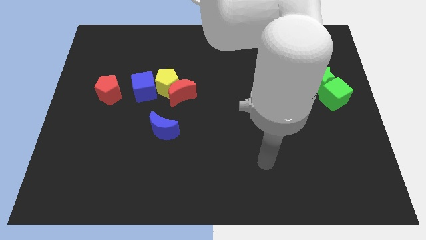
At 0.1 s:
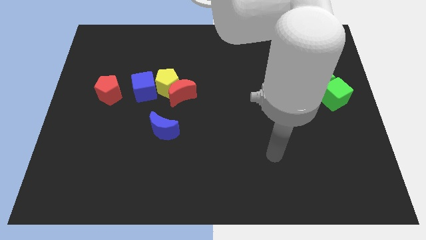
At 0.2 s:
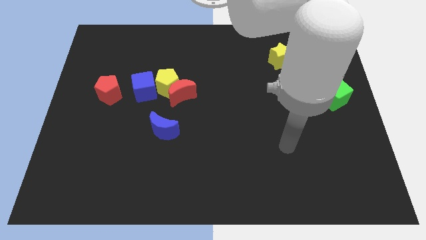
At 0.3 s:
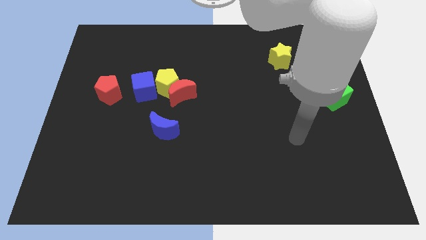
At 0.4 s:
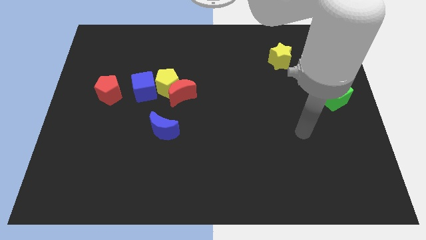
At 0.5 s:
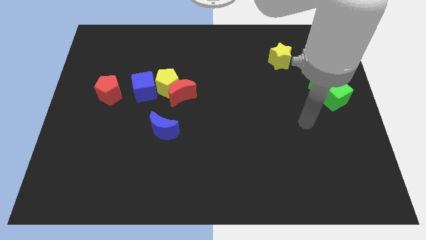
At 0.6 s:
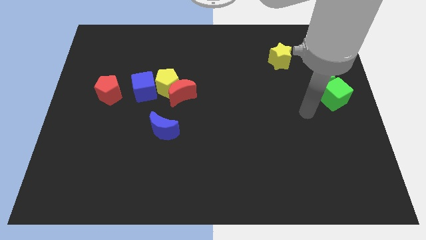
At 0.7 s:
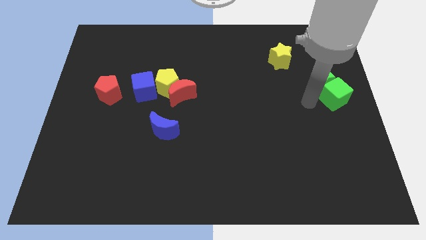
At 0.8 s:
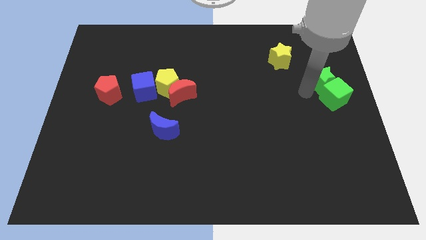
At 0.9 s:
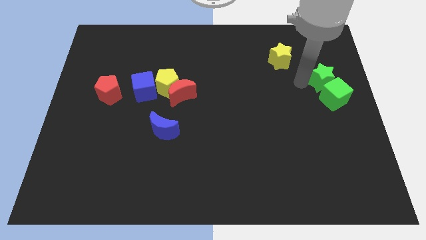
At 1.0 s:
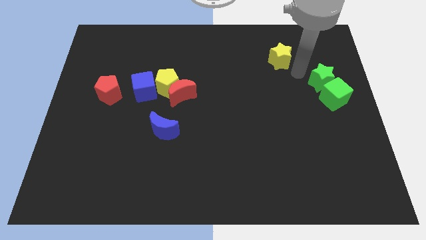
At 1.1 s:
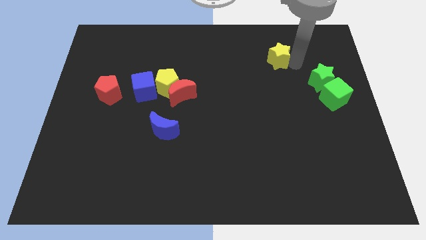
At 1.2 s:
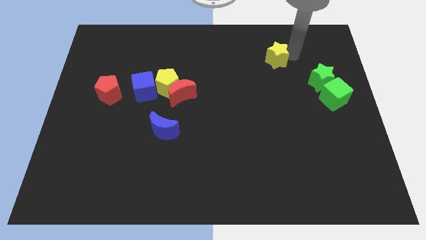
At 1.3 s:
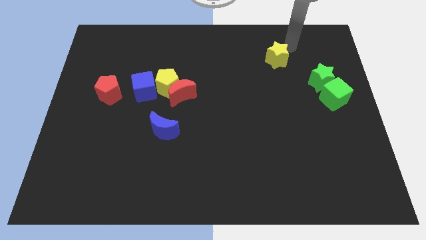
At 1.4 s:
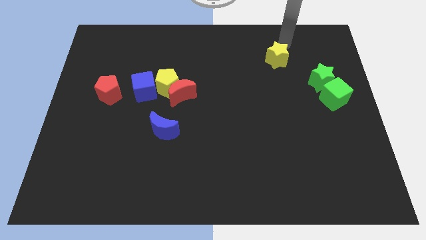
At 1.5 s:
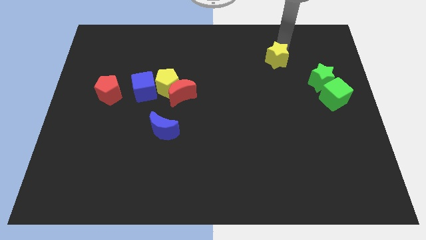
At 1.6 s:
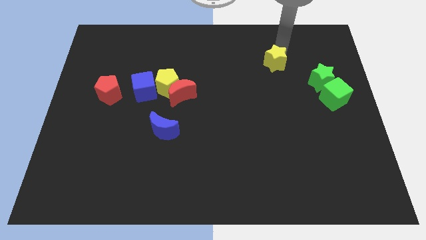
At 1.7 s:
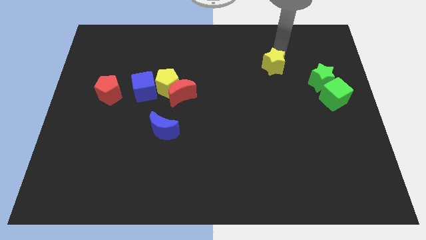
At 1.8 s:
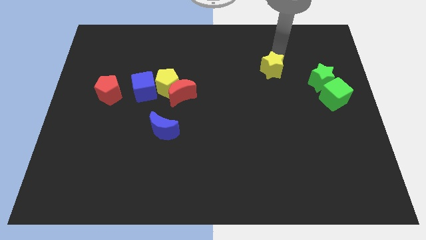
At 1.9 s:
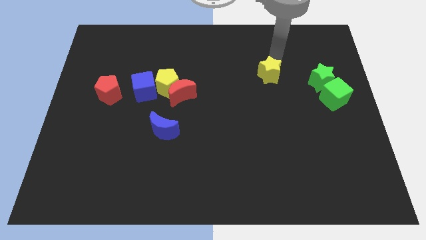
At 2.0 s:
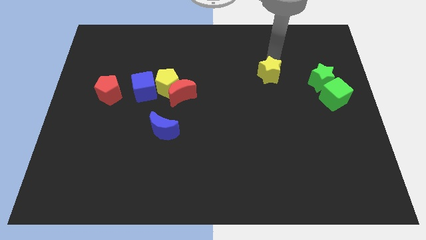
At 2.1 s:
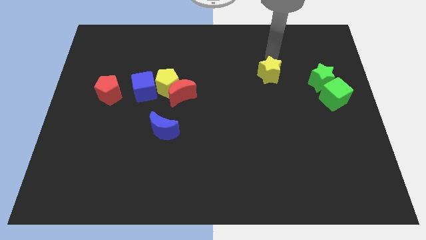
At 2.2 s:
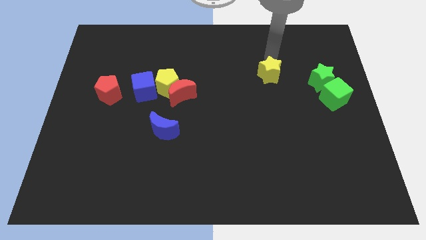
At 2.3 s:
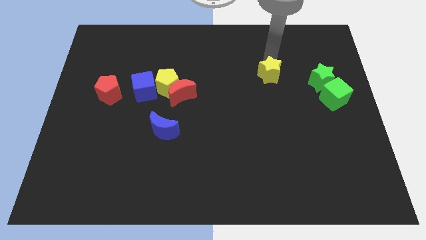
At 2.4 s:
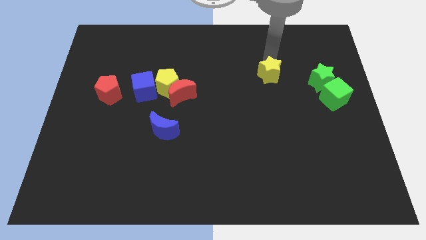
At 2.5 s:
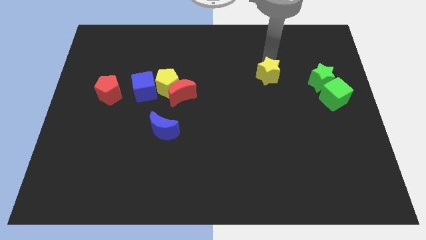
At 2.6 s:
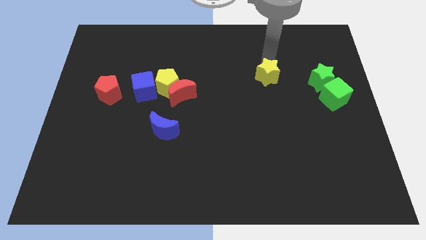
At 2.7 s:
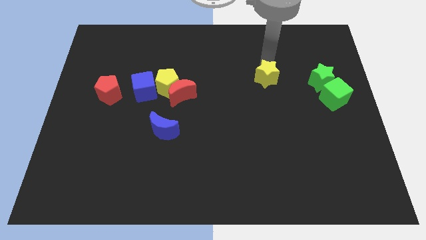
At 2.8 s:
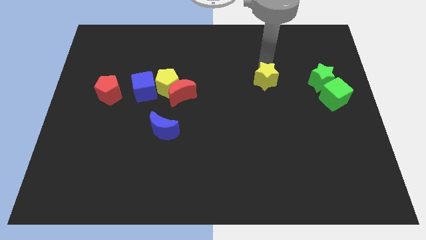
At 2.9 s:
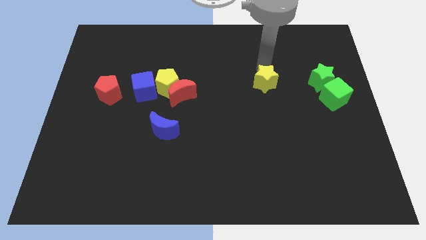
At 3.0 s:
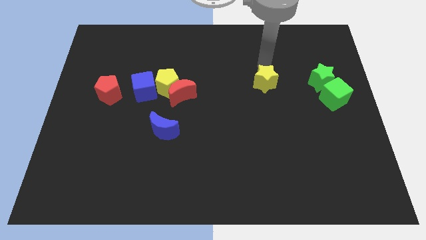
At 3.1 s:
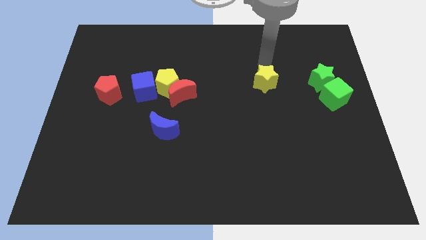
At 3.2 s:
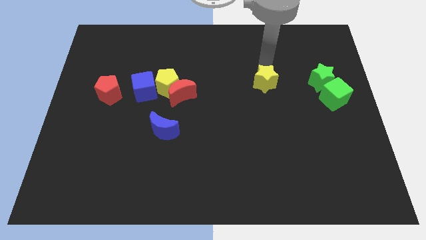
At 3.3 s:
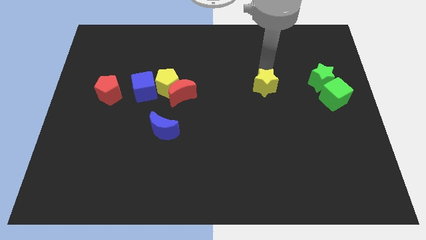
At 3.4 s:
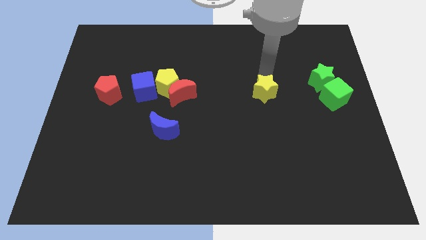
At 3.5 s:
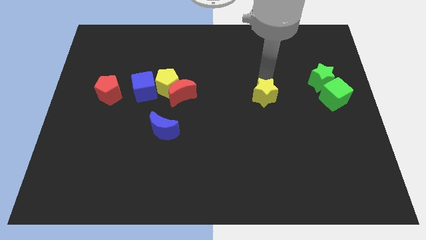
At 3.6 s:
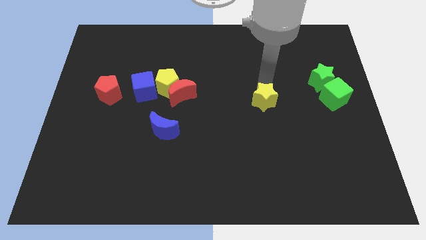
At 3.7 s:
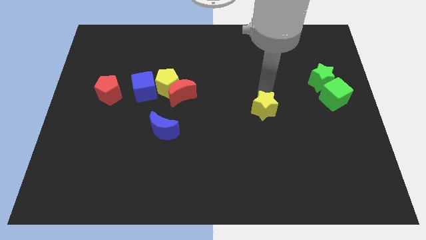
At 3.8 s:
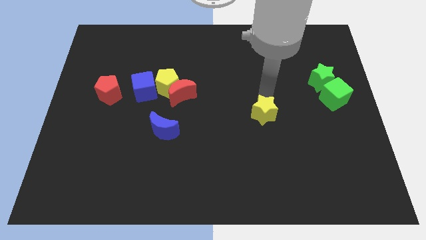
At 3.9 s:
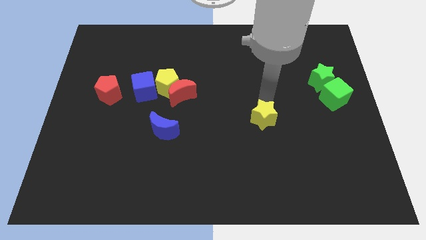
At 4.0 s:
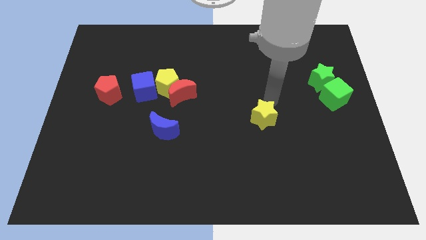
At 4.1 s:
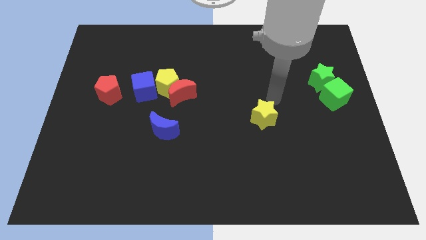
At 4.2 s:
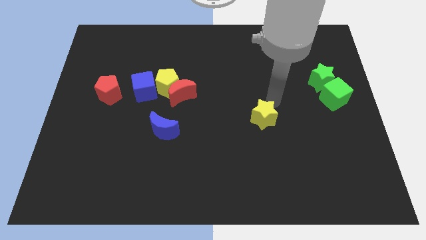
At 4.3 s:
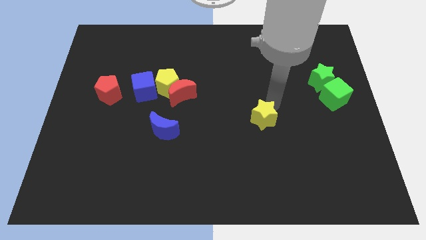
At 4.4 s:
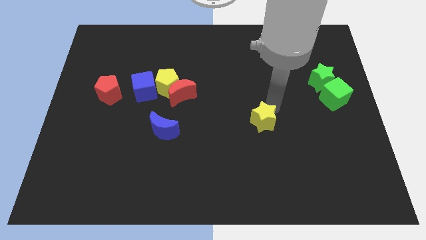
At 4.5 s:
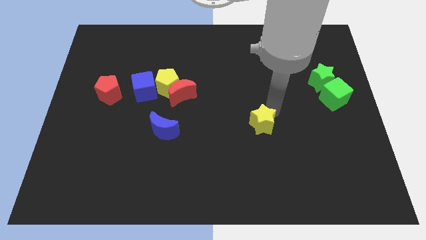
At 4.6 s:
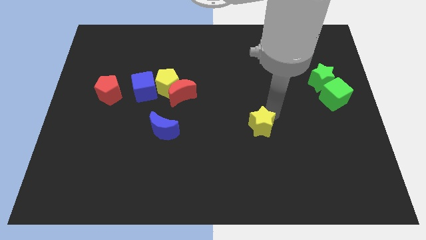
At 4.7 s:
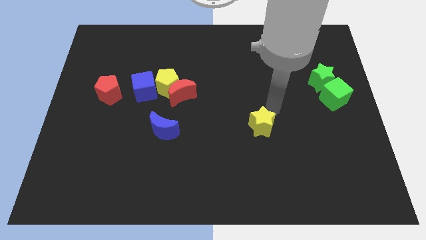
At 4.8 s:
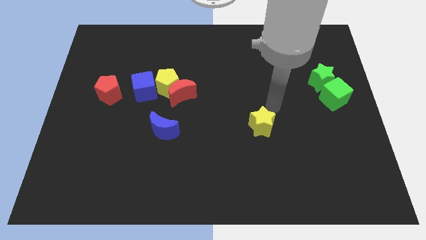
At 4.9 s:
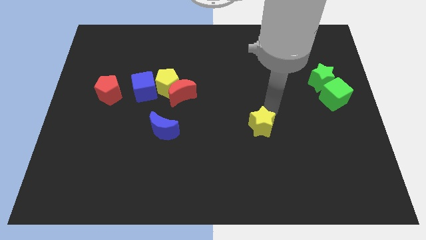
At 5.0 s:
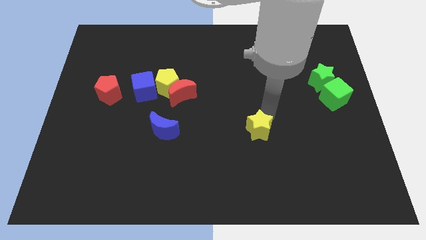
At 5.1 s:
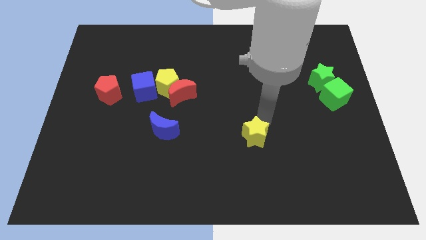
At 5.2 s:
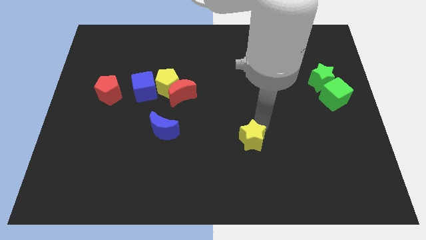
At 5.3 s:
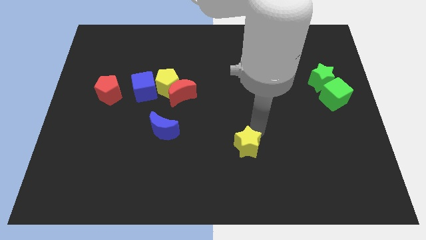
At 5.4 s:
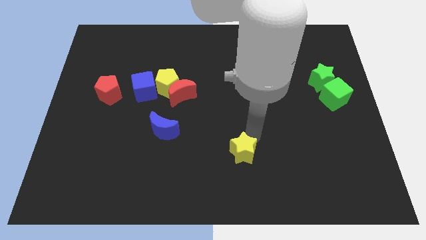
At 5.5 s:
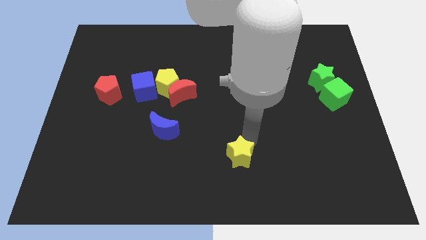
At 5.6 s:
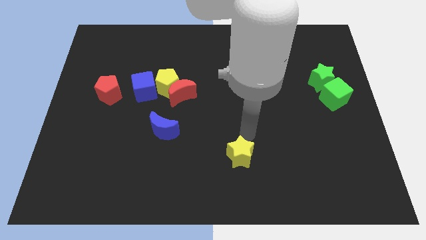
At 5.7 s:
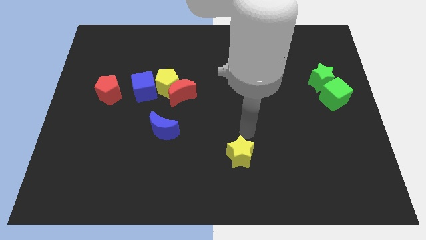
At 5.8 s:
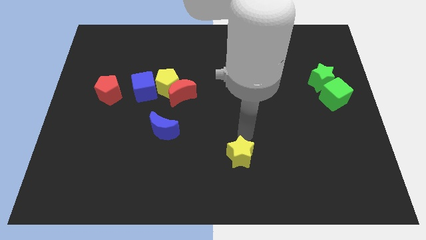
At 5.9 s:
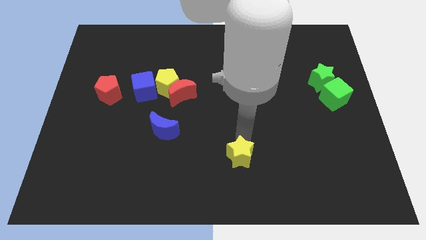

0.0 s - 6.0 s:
put the yellow star to the bottom
